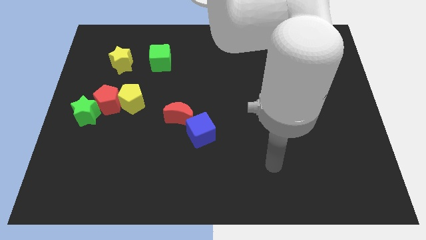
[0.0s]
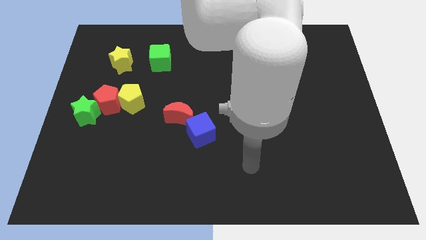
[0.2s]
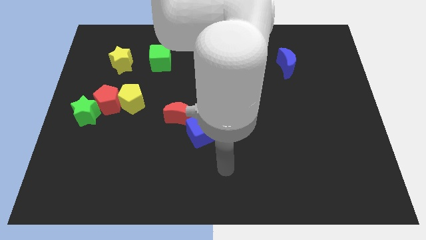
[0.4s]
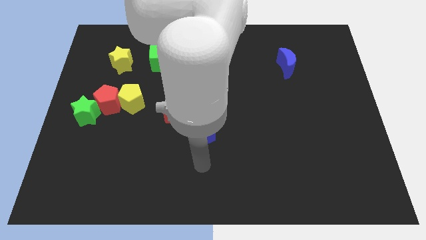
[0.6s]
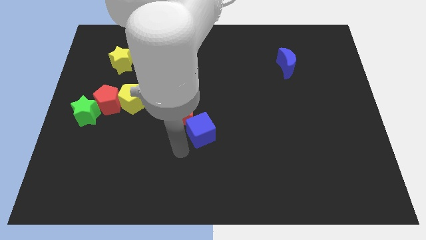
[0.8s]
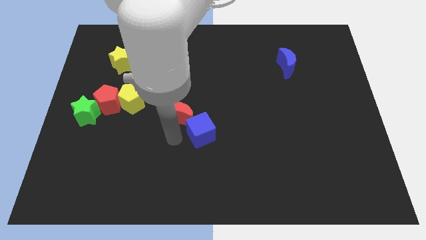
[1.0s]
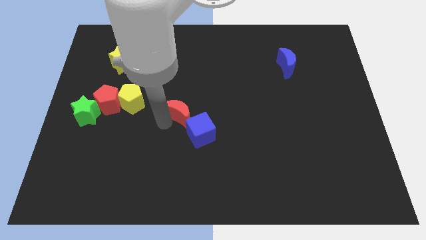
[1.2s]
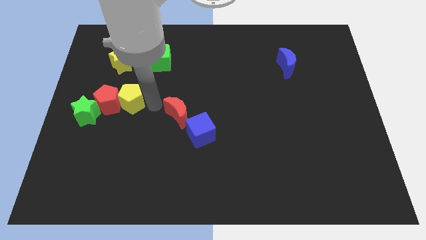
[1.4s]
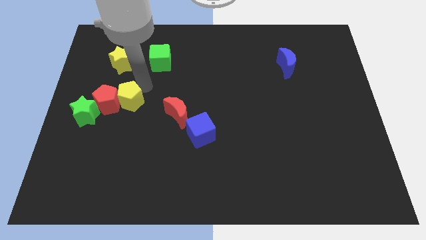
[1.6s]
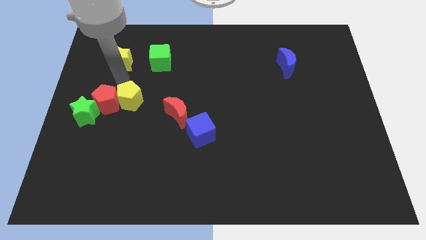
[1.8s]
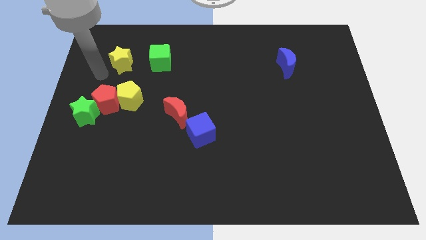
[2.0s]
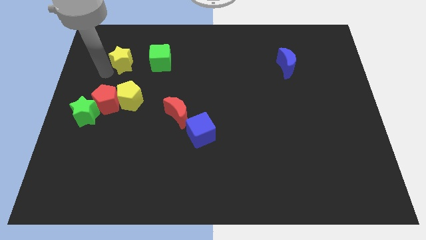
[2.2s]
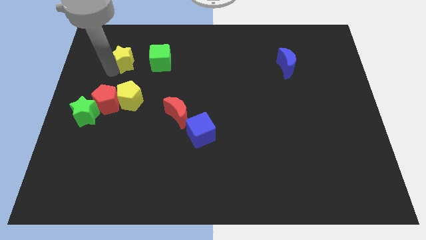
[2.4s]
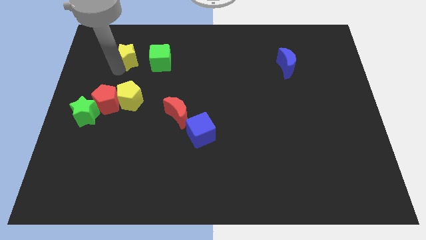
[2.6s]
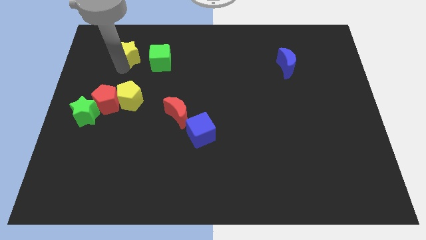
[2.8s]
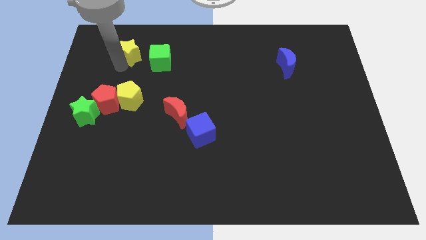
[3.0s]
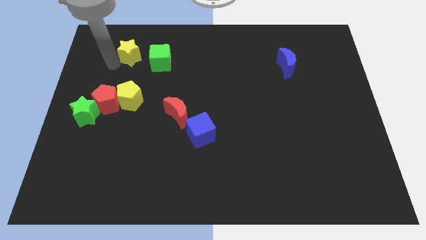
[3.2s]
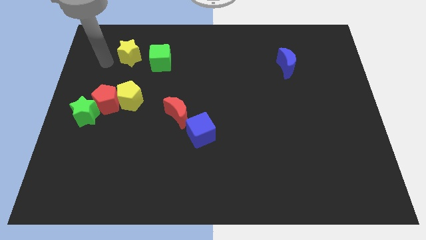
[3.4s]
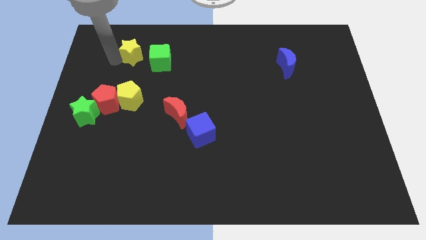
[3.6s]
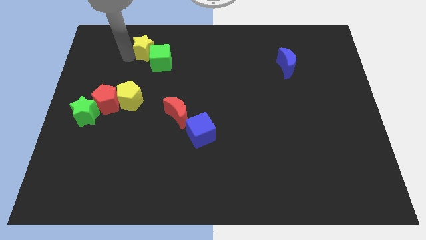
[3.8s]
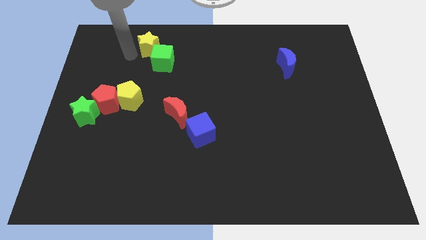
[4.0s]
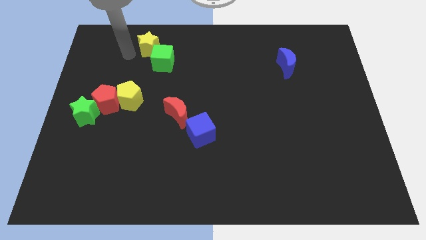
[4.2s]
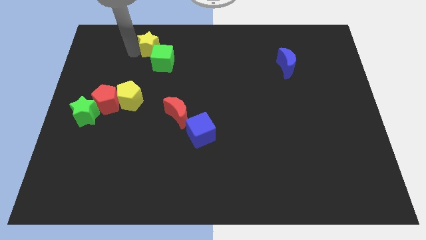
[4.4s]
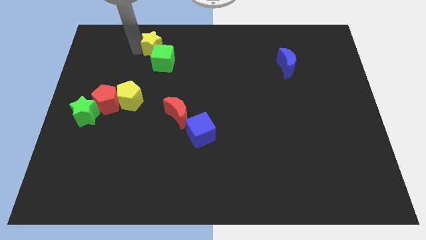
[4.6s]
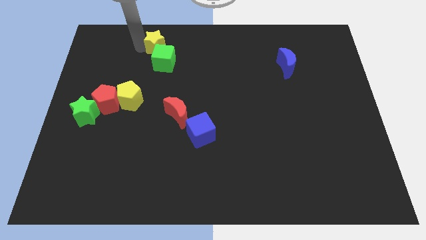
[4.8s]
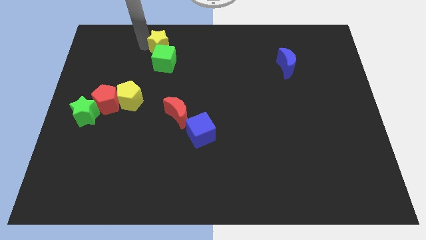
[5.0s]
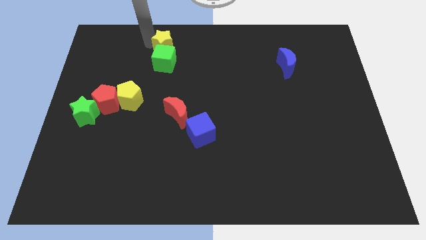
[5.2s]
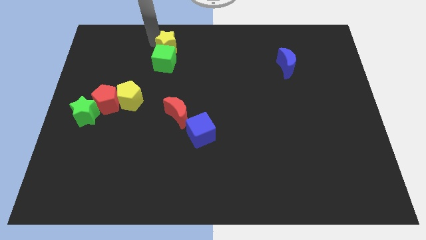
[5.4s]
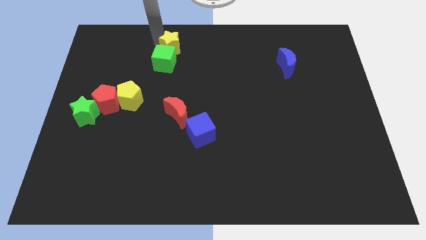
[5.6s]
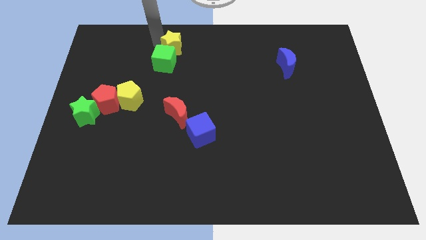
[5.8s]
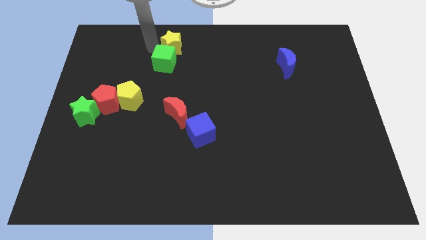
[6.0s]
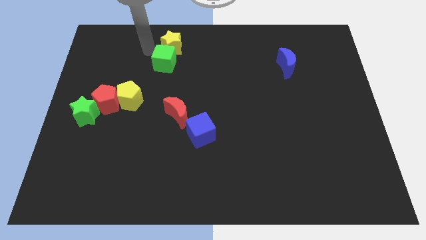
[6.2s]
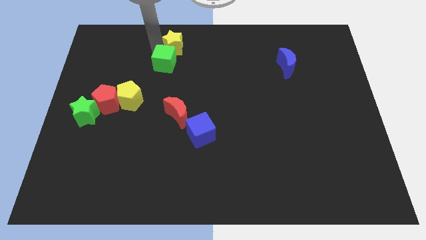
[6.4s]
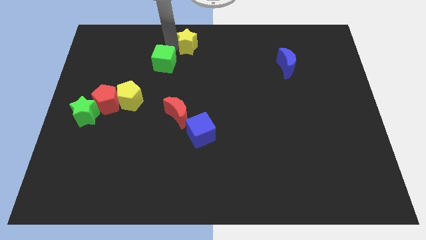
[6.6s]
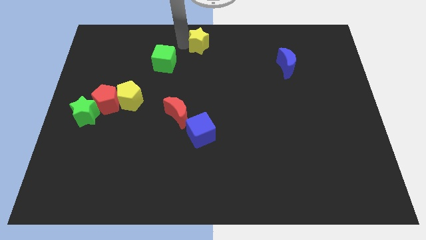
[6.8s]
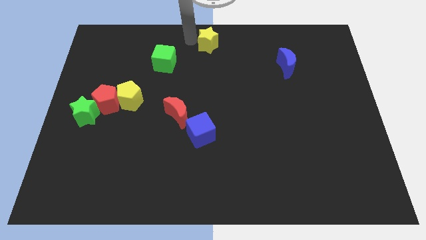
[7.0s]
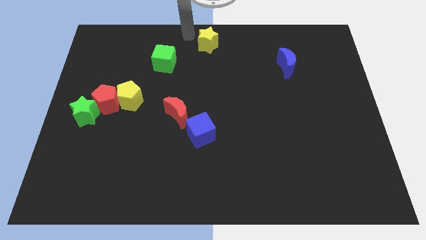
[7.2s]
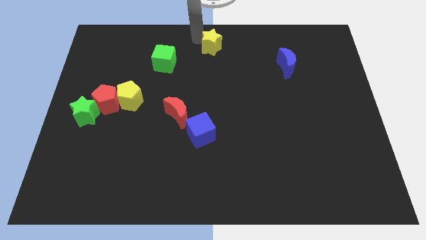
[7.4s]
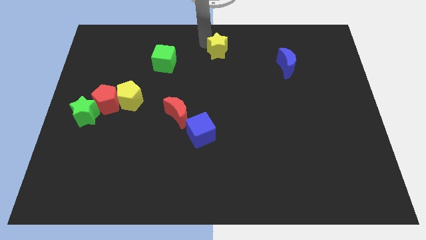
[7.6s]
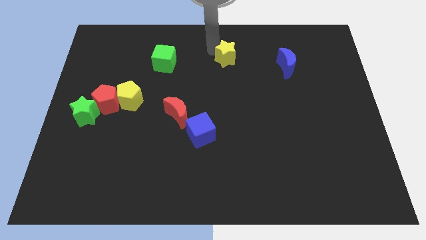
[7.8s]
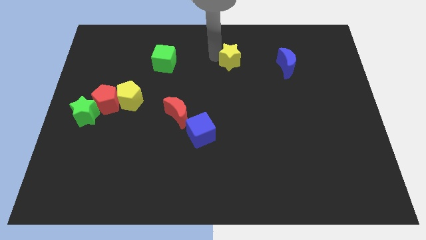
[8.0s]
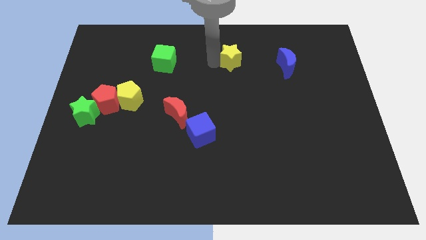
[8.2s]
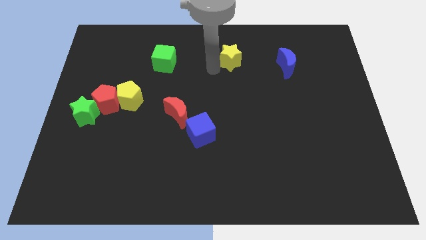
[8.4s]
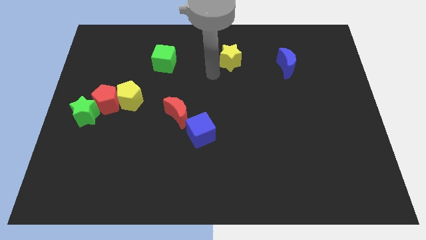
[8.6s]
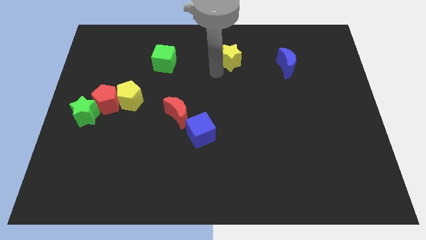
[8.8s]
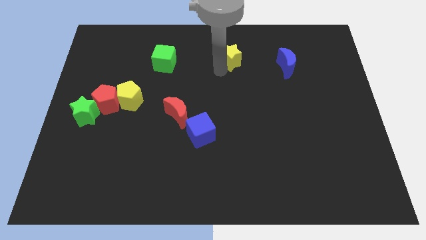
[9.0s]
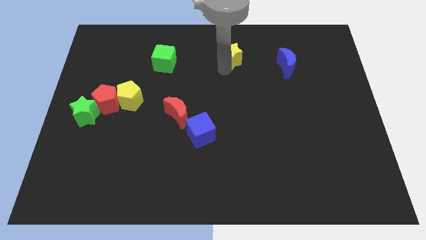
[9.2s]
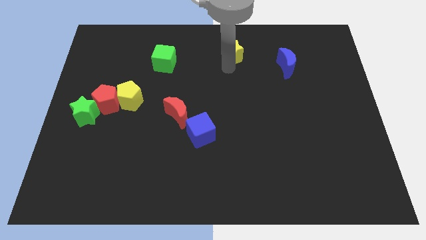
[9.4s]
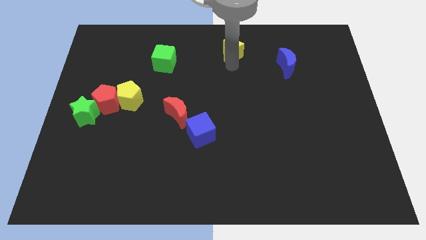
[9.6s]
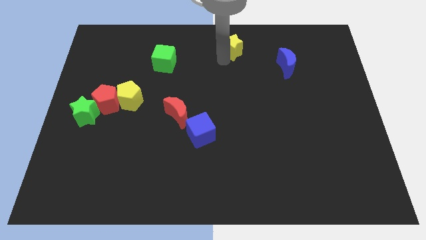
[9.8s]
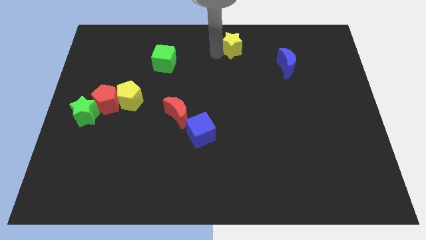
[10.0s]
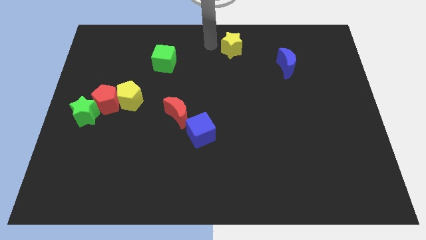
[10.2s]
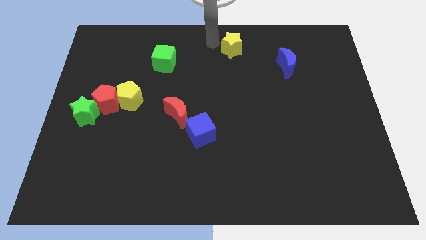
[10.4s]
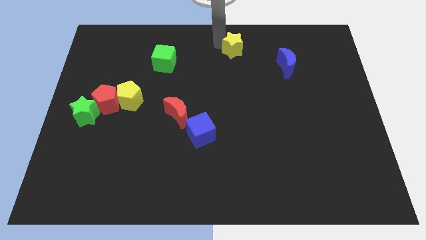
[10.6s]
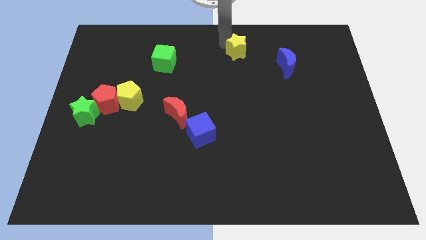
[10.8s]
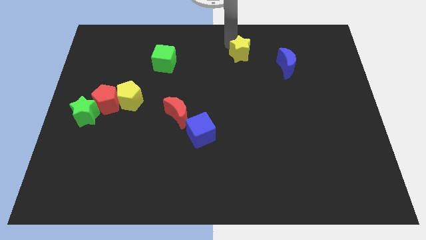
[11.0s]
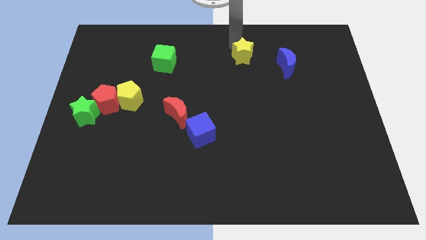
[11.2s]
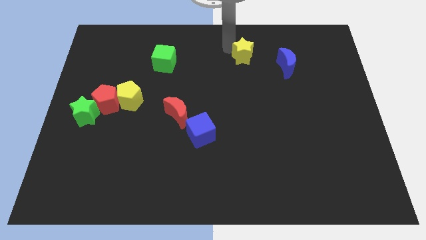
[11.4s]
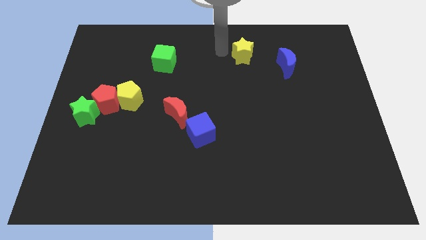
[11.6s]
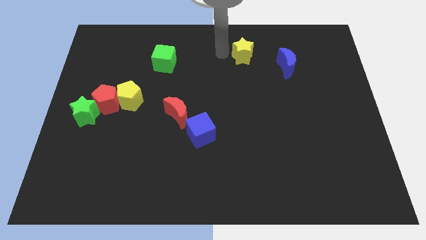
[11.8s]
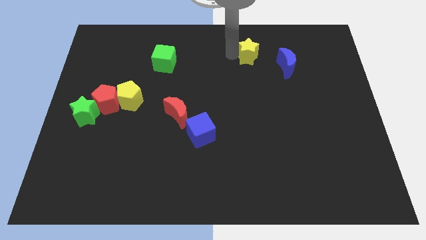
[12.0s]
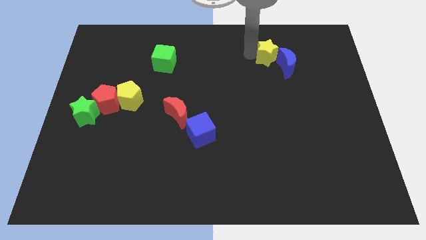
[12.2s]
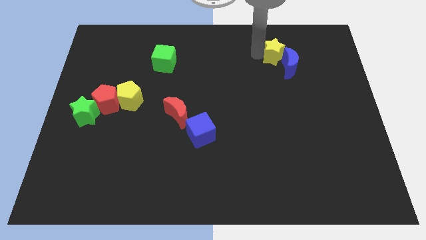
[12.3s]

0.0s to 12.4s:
push the yellow star to the blue moon

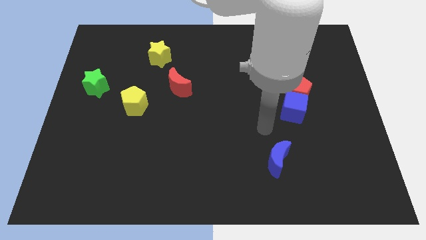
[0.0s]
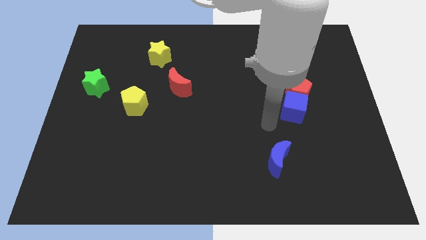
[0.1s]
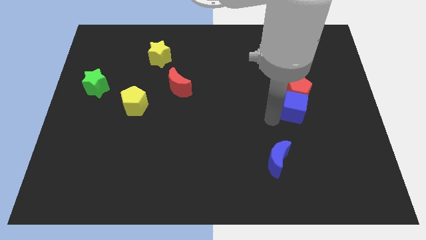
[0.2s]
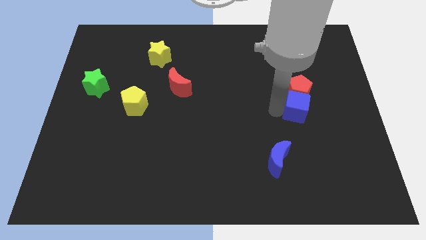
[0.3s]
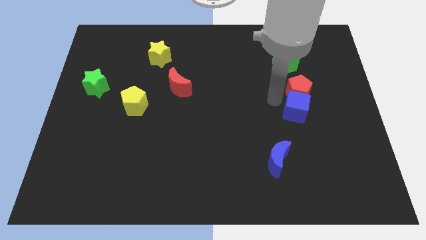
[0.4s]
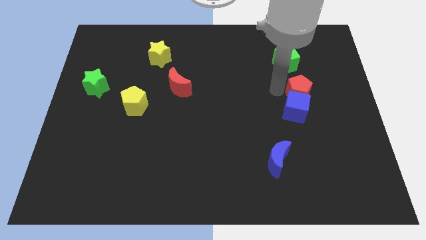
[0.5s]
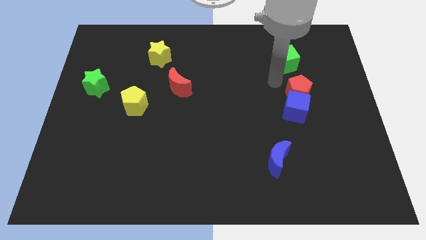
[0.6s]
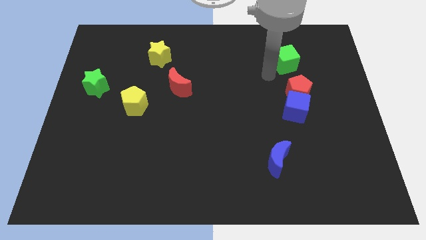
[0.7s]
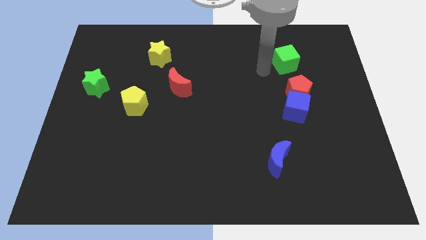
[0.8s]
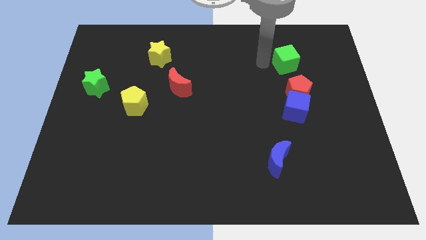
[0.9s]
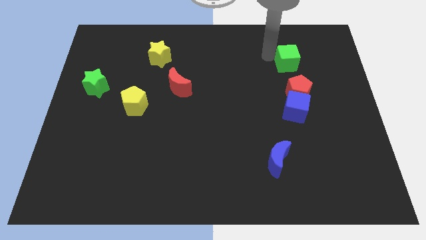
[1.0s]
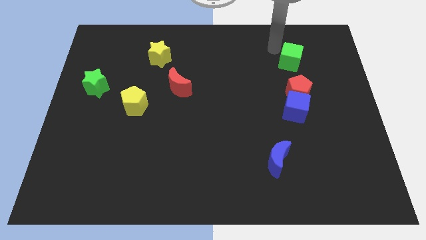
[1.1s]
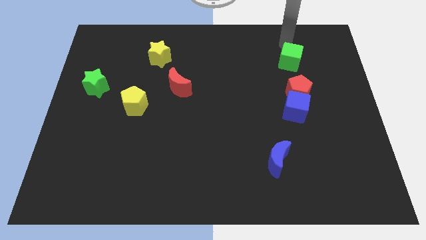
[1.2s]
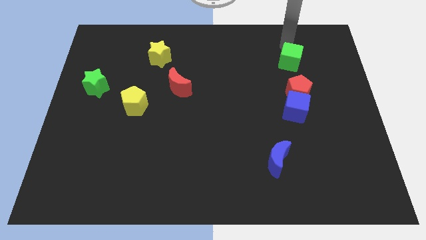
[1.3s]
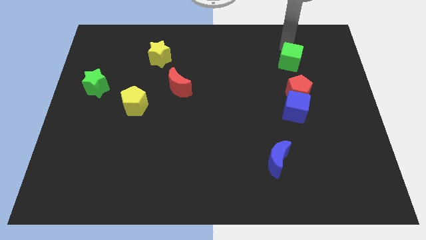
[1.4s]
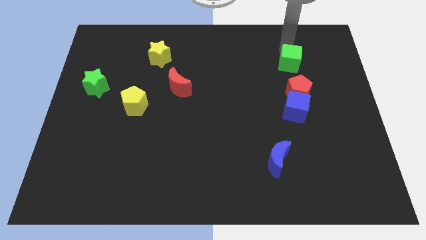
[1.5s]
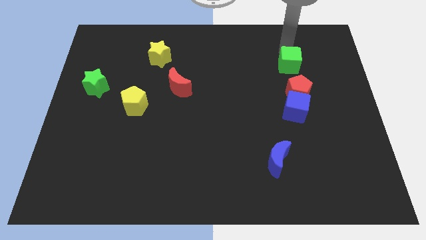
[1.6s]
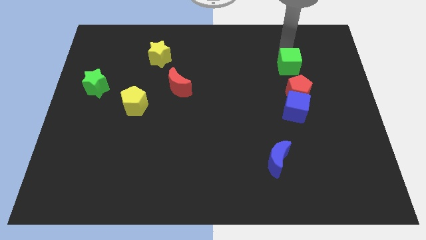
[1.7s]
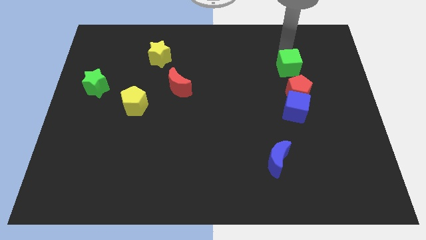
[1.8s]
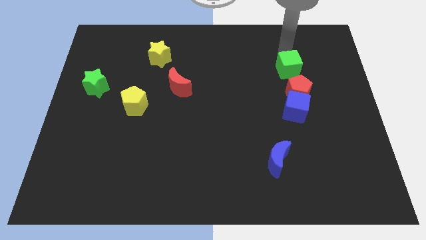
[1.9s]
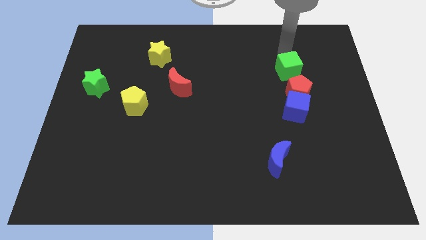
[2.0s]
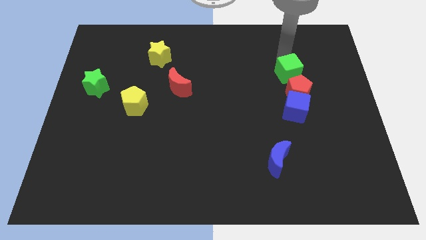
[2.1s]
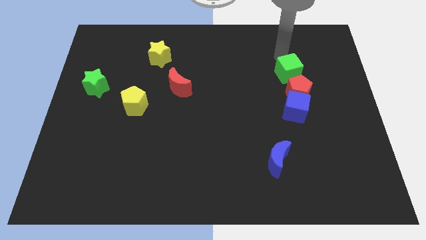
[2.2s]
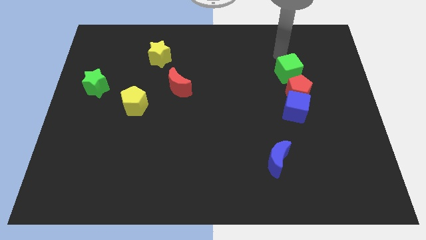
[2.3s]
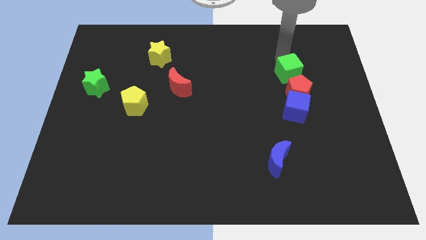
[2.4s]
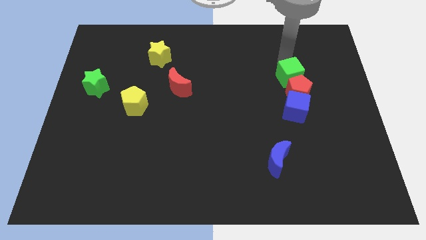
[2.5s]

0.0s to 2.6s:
push the green cube next to the red pentagon
